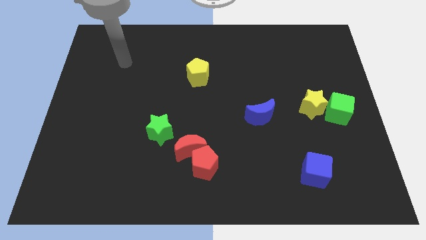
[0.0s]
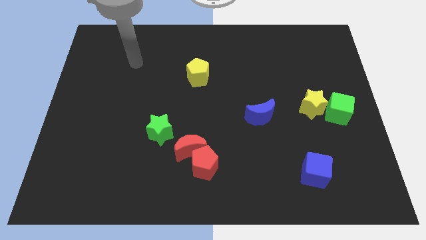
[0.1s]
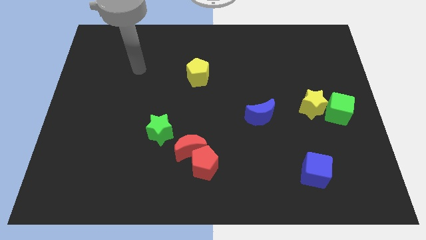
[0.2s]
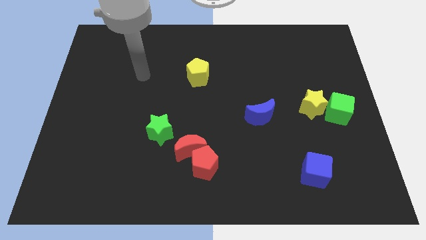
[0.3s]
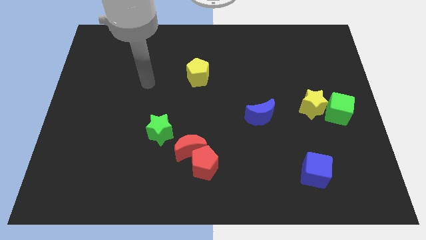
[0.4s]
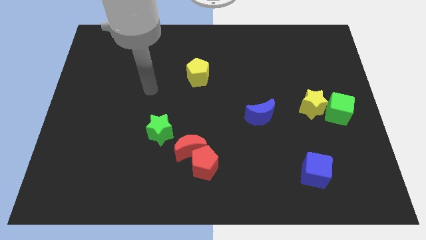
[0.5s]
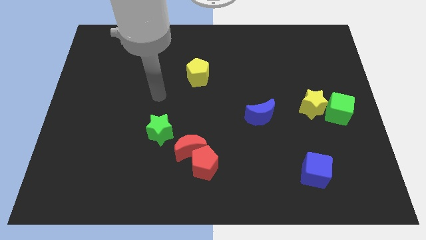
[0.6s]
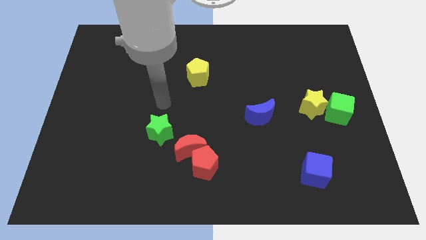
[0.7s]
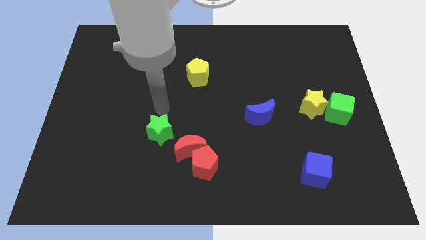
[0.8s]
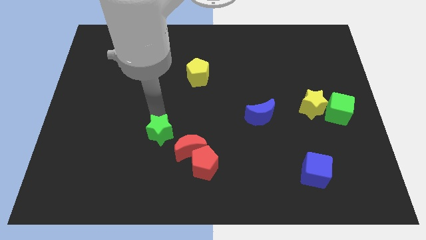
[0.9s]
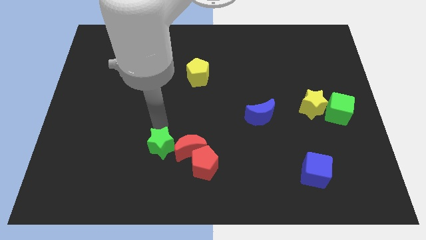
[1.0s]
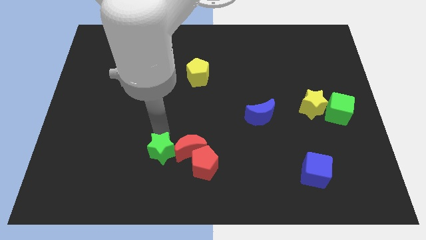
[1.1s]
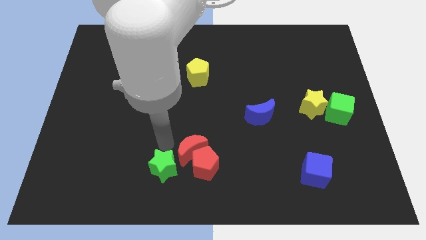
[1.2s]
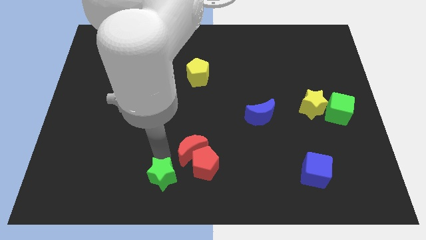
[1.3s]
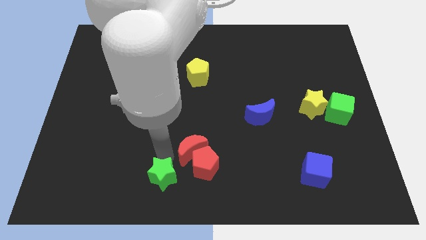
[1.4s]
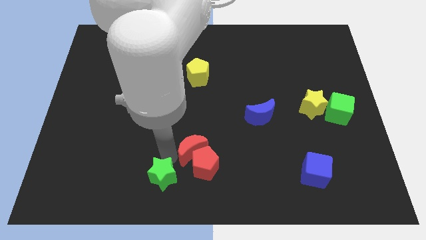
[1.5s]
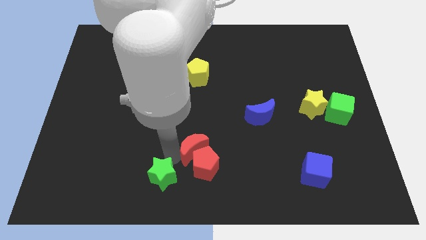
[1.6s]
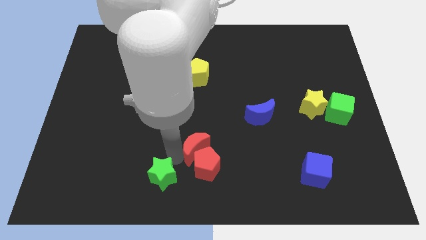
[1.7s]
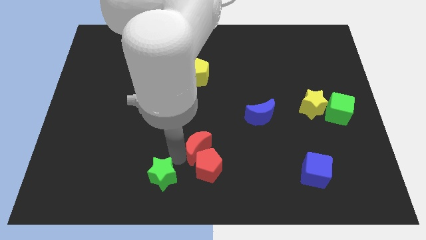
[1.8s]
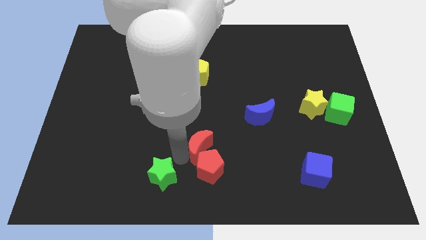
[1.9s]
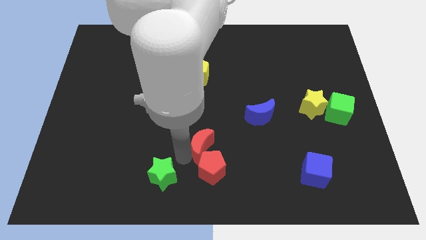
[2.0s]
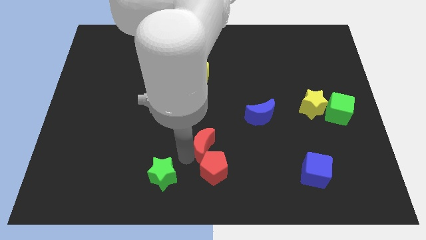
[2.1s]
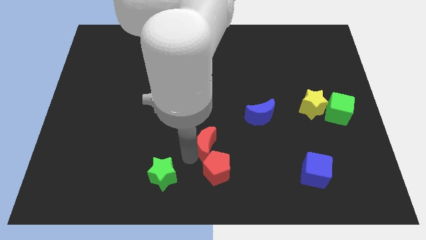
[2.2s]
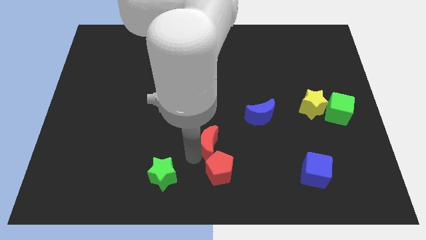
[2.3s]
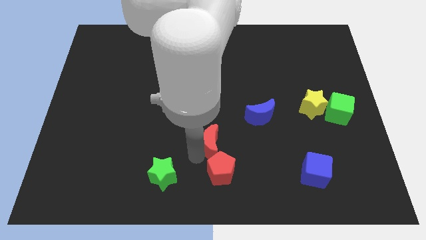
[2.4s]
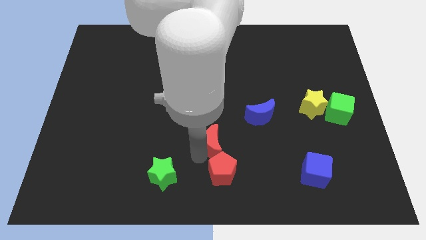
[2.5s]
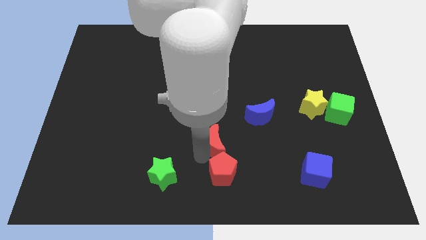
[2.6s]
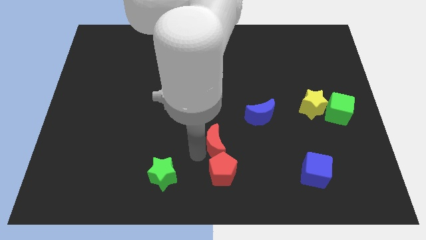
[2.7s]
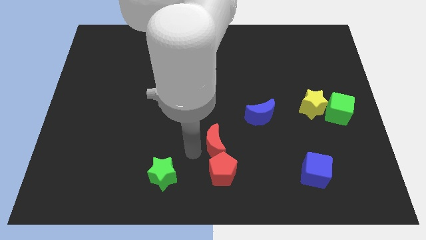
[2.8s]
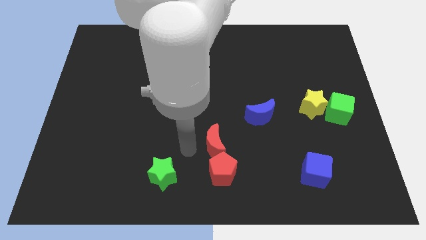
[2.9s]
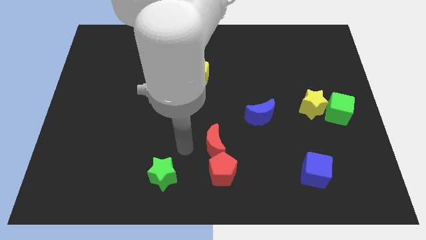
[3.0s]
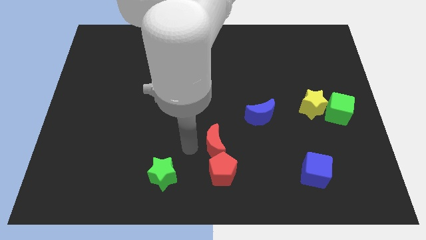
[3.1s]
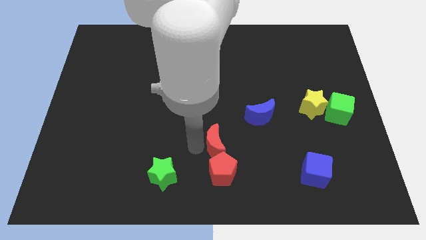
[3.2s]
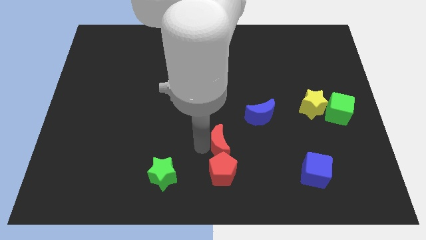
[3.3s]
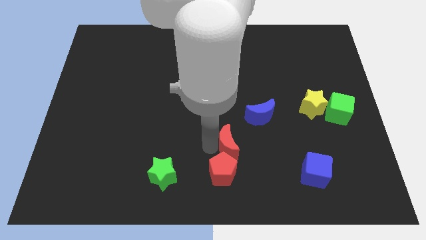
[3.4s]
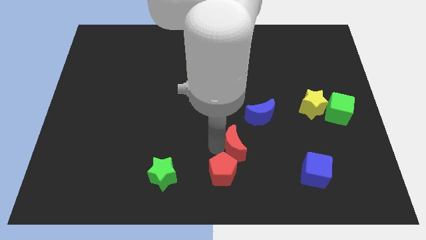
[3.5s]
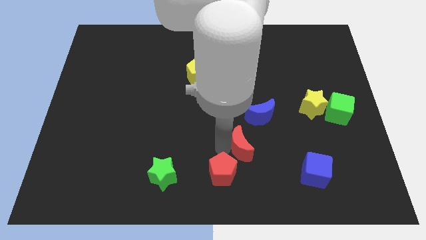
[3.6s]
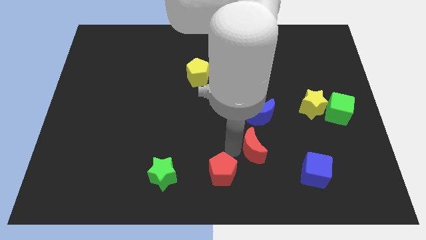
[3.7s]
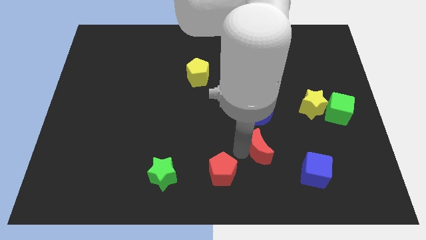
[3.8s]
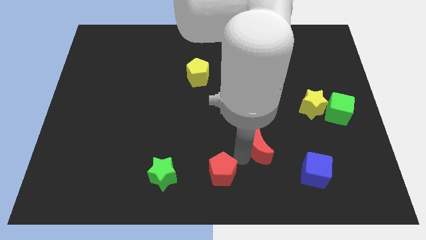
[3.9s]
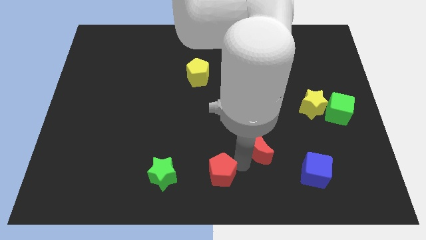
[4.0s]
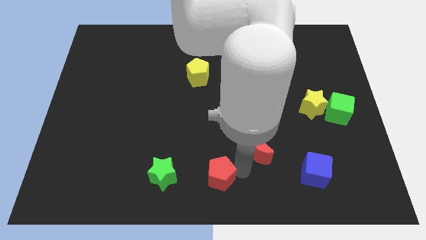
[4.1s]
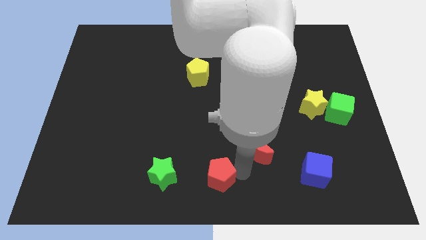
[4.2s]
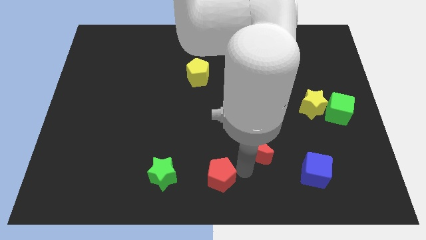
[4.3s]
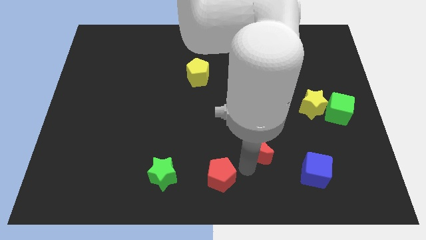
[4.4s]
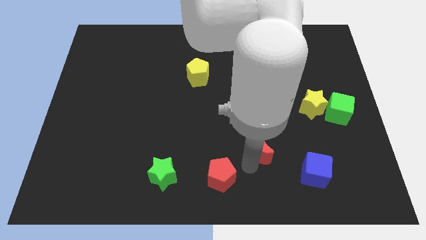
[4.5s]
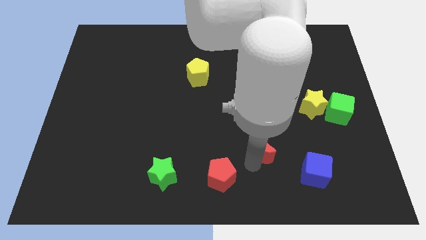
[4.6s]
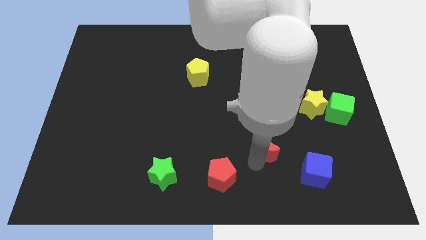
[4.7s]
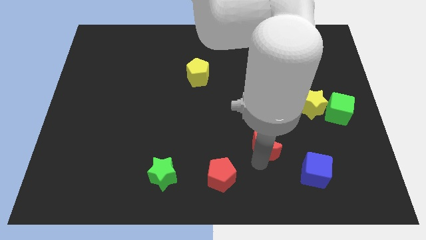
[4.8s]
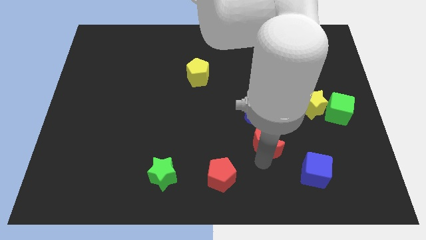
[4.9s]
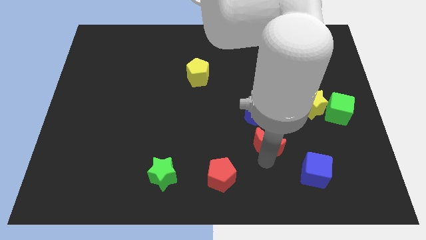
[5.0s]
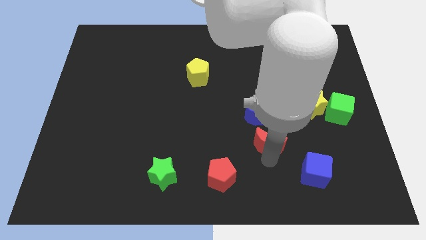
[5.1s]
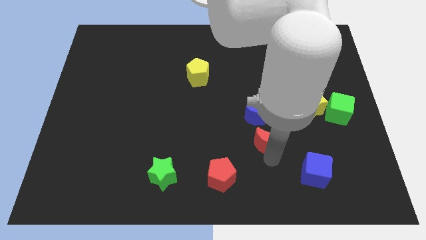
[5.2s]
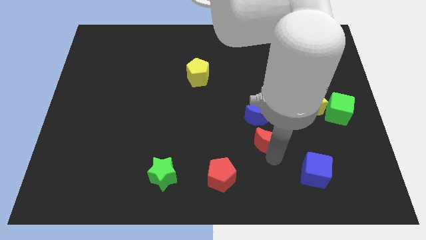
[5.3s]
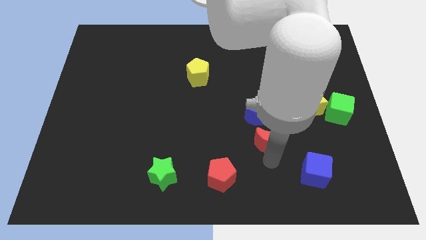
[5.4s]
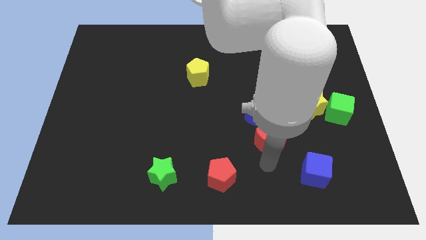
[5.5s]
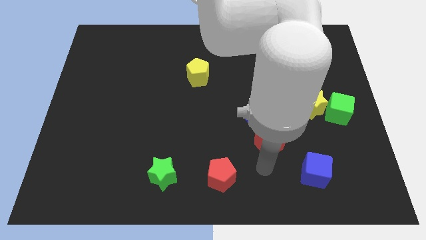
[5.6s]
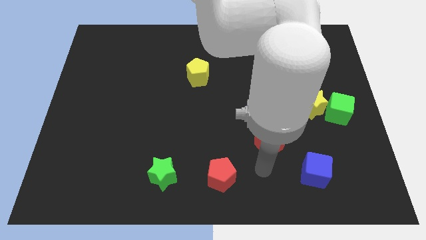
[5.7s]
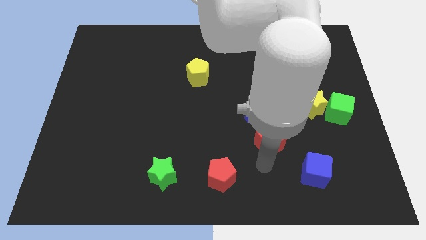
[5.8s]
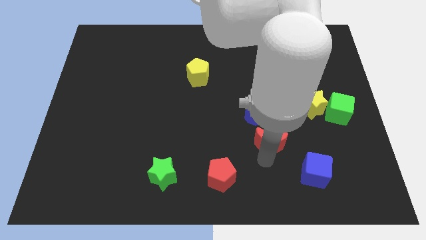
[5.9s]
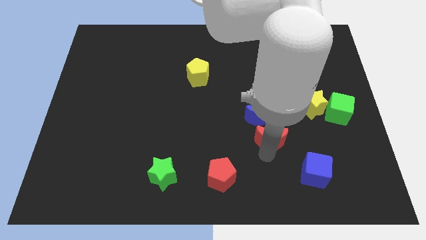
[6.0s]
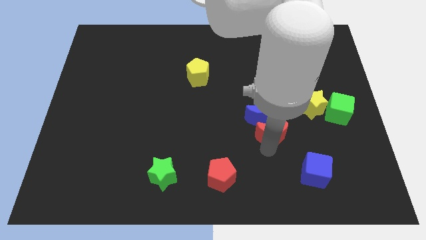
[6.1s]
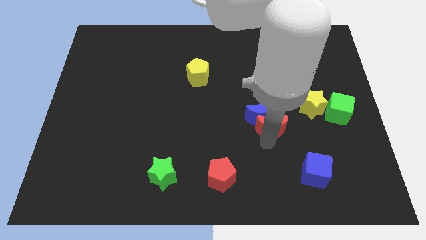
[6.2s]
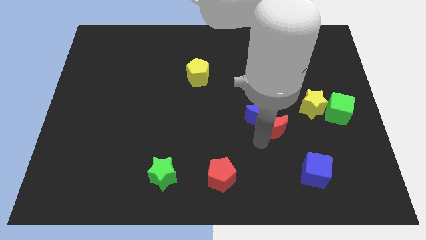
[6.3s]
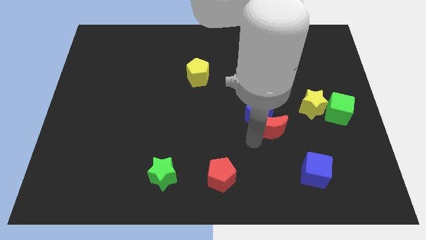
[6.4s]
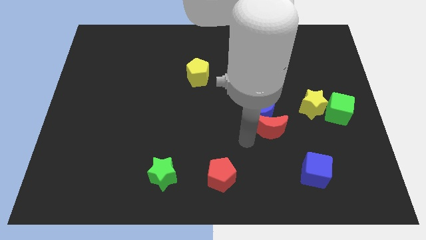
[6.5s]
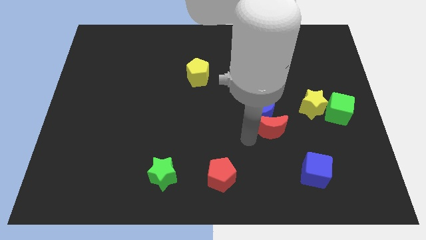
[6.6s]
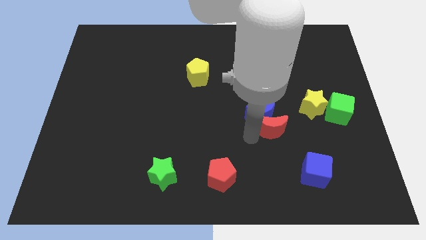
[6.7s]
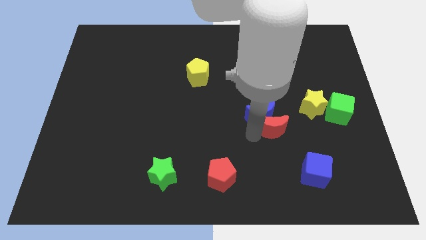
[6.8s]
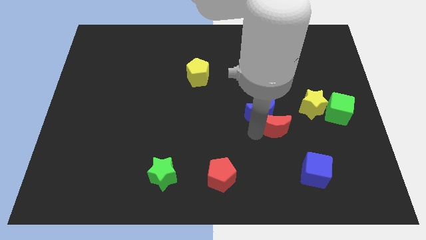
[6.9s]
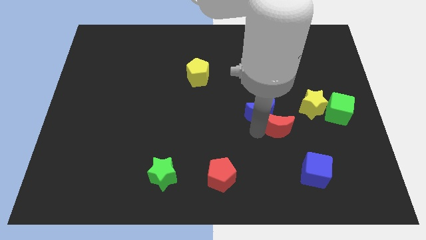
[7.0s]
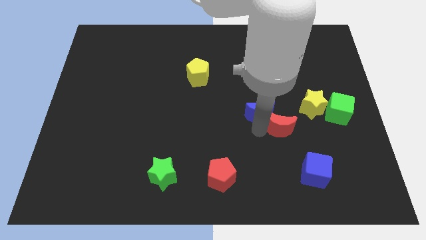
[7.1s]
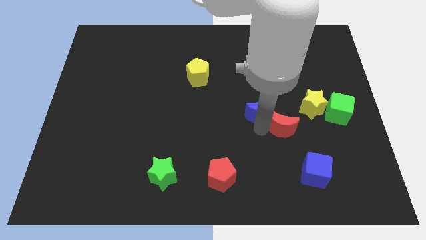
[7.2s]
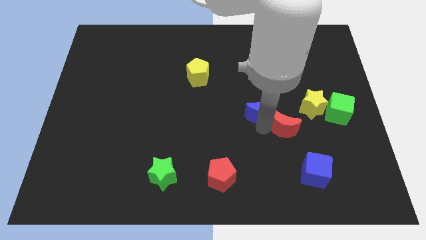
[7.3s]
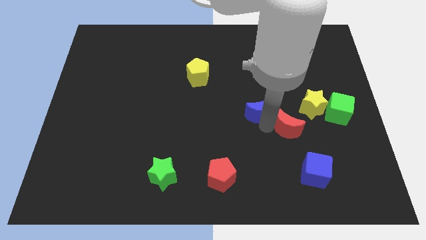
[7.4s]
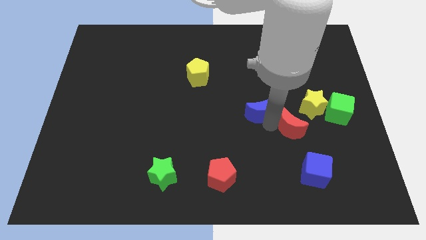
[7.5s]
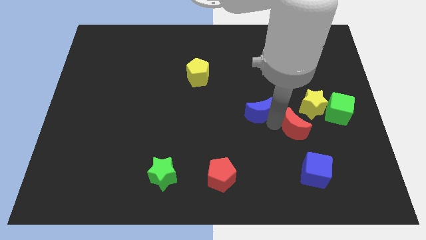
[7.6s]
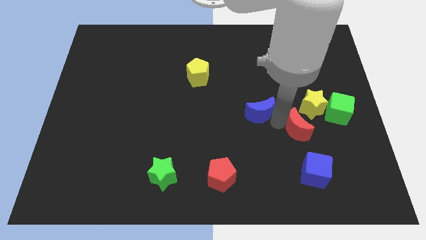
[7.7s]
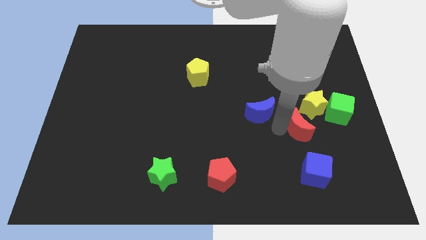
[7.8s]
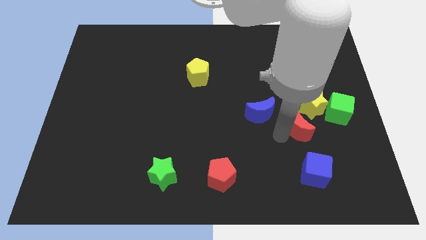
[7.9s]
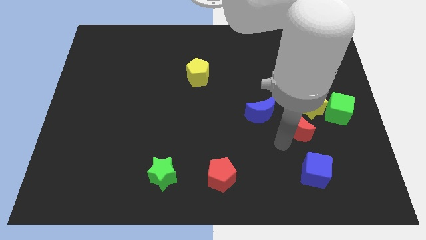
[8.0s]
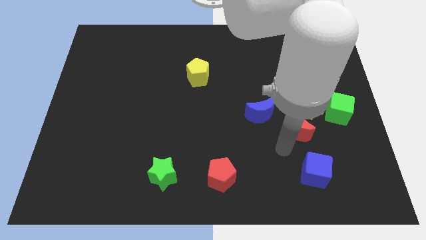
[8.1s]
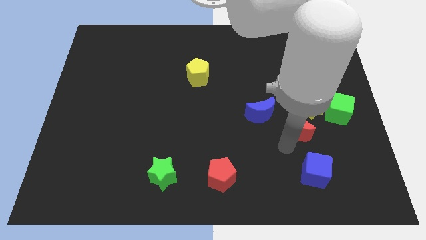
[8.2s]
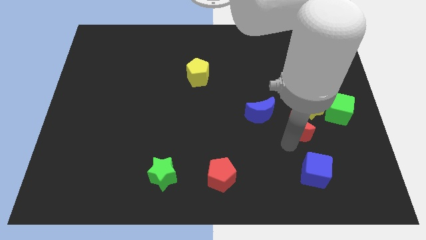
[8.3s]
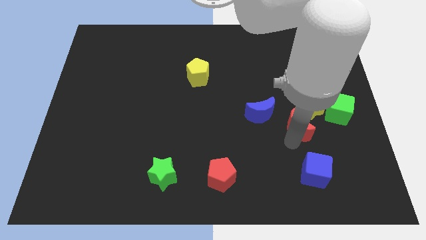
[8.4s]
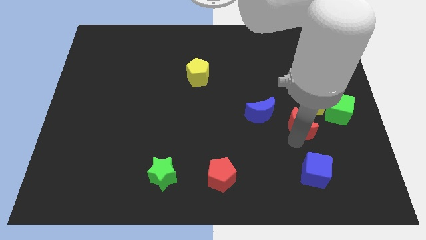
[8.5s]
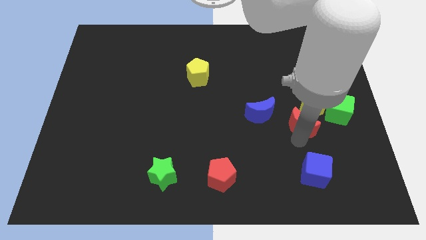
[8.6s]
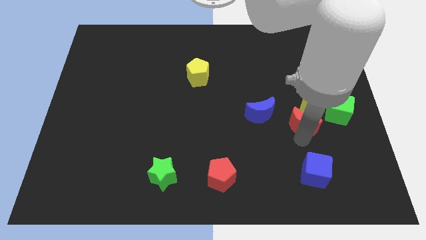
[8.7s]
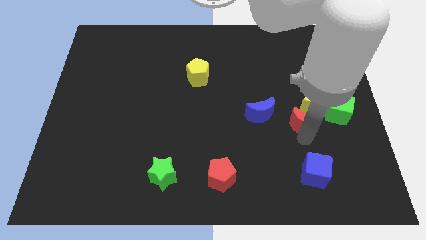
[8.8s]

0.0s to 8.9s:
put the red moon next to the yellow star
